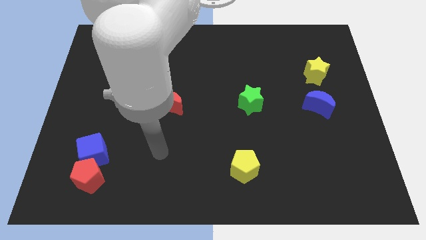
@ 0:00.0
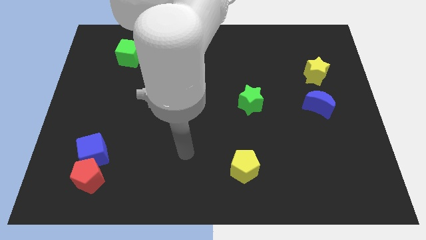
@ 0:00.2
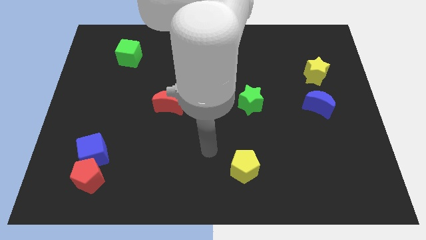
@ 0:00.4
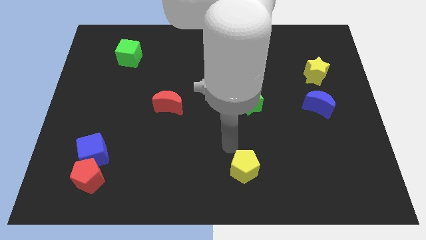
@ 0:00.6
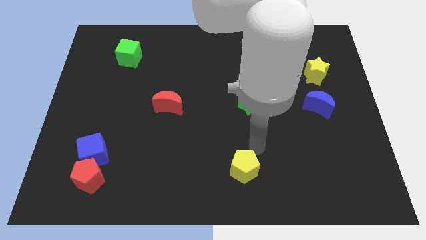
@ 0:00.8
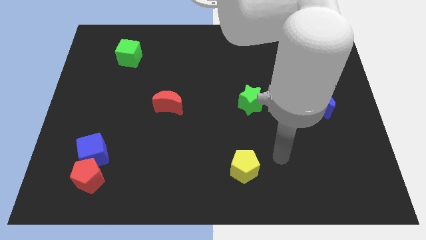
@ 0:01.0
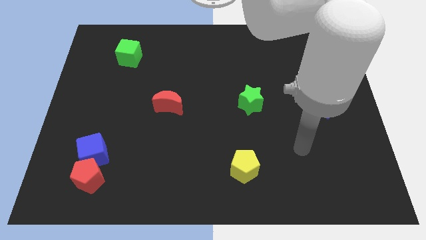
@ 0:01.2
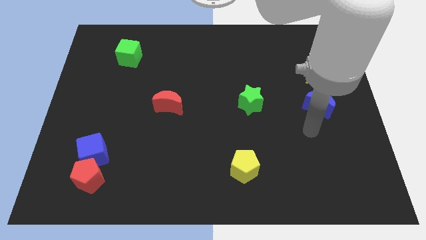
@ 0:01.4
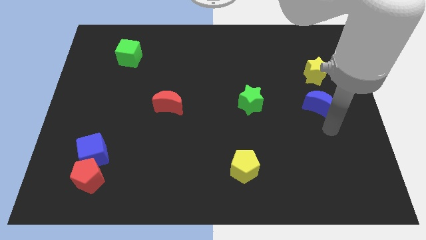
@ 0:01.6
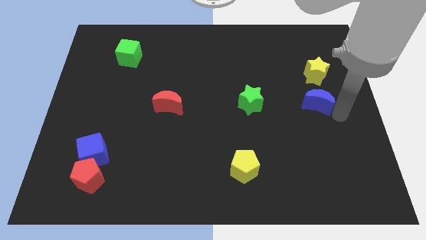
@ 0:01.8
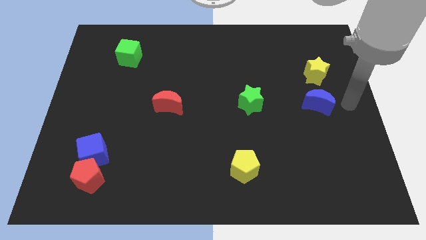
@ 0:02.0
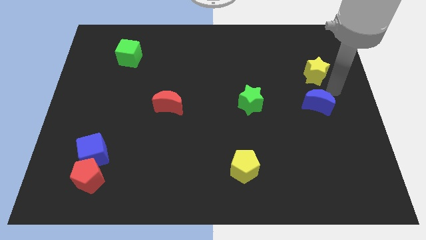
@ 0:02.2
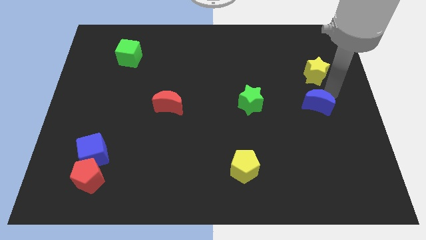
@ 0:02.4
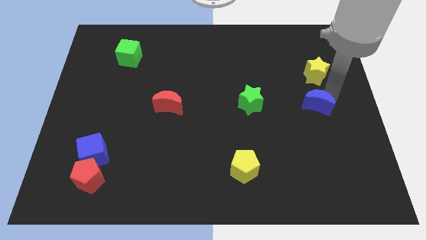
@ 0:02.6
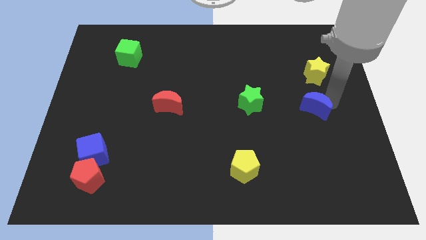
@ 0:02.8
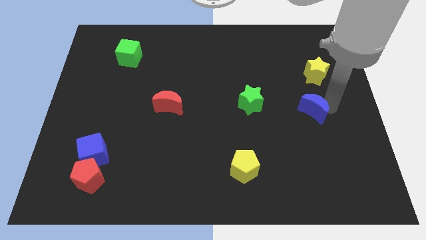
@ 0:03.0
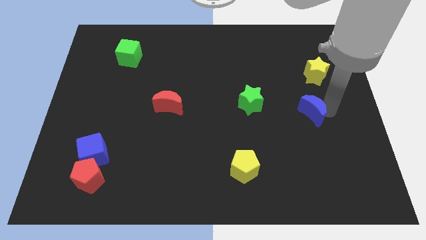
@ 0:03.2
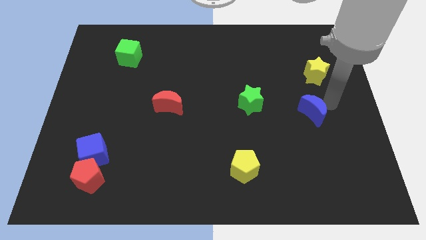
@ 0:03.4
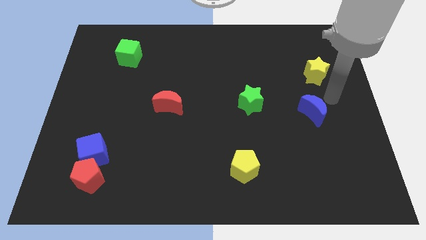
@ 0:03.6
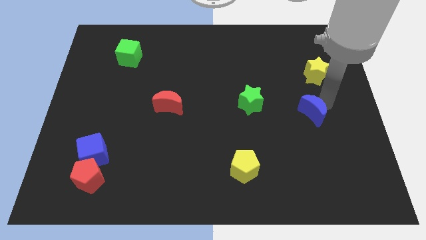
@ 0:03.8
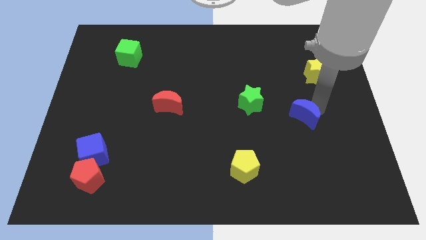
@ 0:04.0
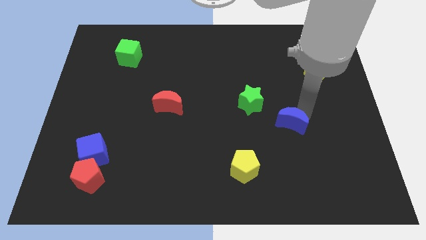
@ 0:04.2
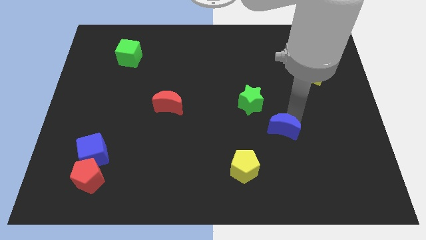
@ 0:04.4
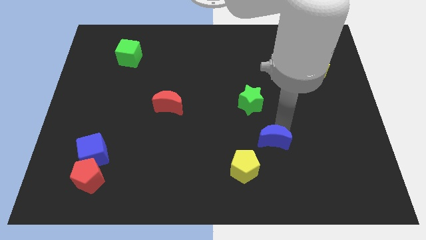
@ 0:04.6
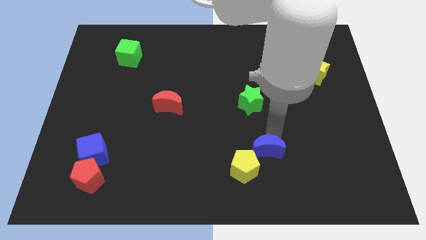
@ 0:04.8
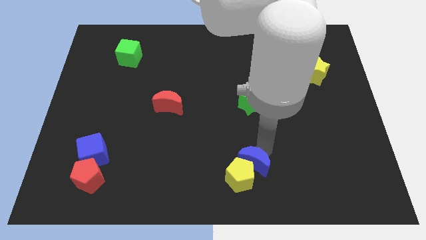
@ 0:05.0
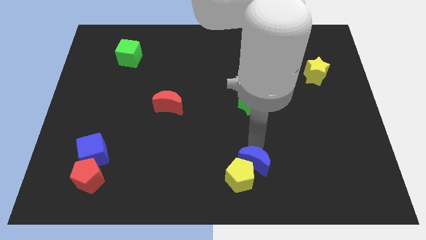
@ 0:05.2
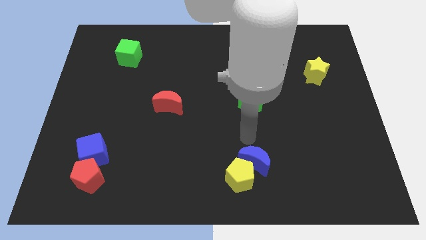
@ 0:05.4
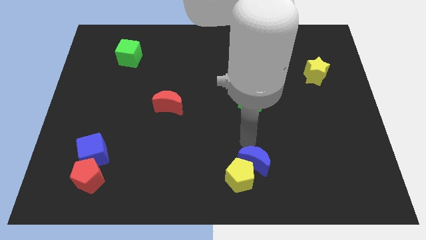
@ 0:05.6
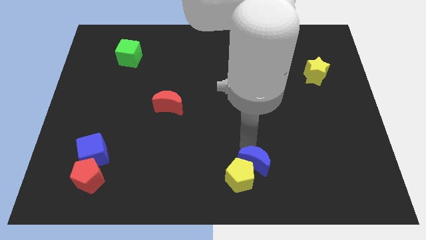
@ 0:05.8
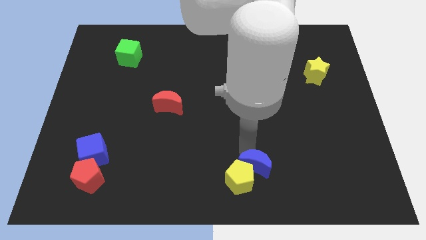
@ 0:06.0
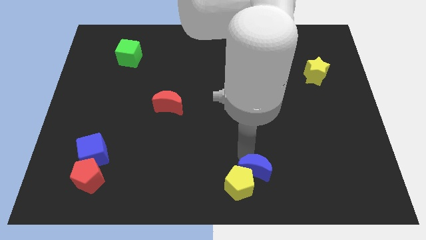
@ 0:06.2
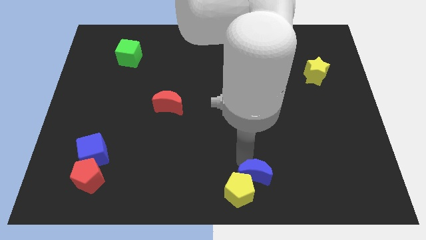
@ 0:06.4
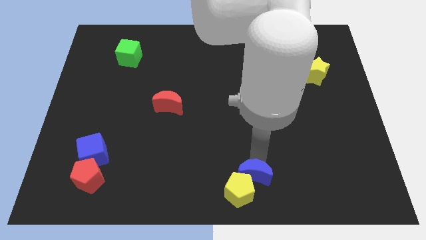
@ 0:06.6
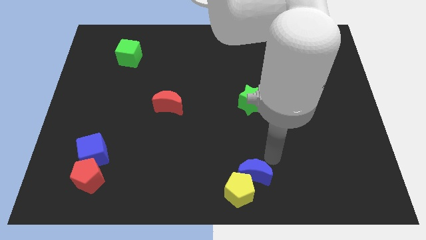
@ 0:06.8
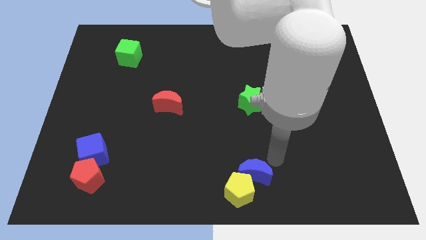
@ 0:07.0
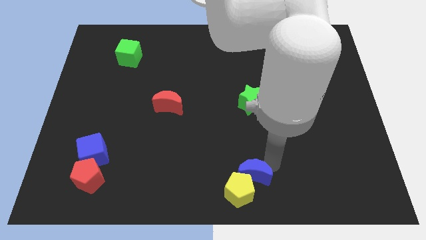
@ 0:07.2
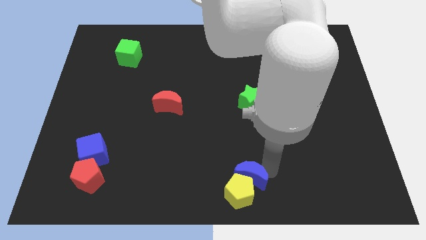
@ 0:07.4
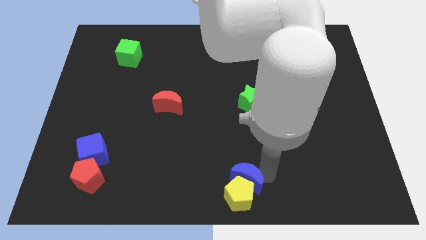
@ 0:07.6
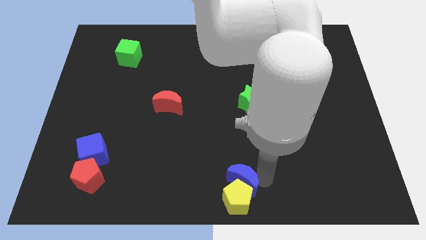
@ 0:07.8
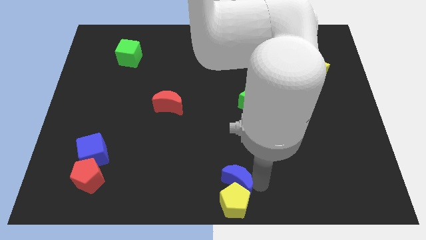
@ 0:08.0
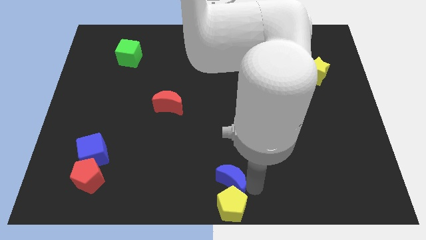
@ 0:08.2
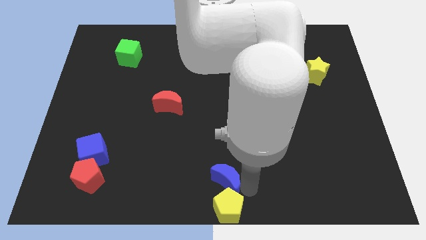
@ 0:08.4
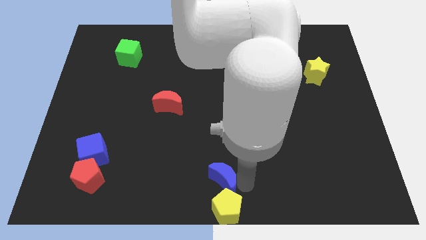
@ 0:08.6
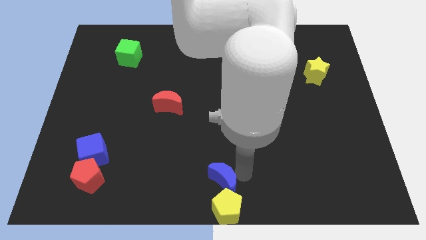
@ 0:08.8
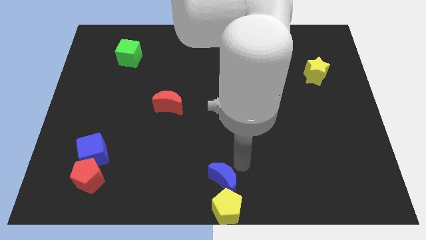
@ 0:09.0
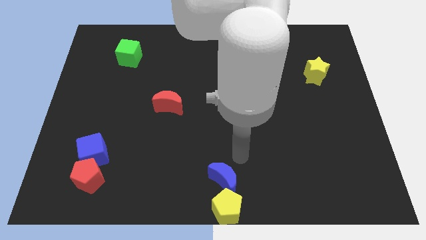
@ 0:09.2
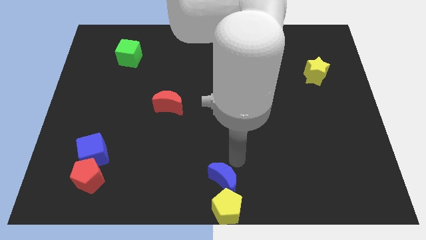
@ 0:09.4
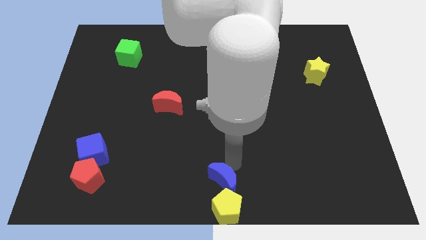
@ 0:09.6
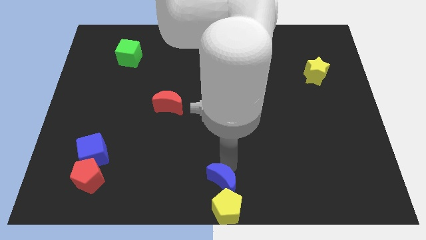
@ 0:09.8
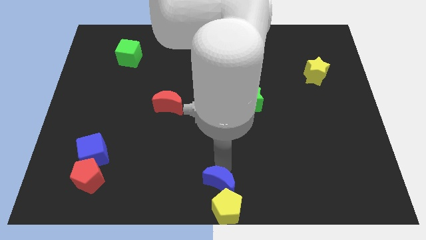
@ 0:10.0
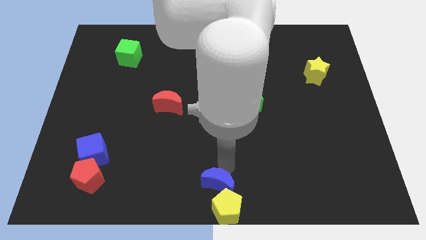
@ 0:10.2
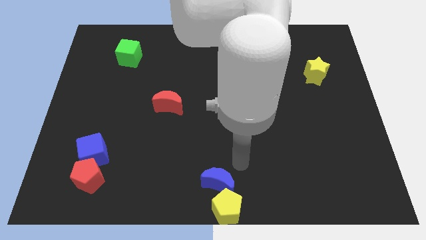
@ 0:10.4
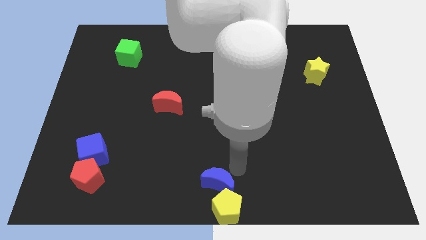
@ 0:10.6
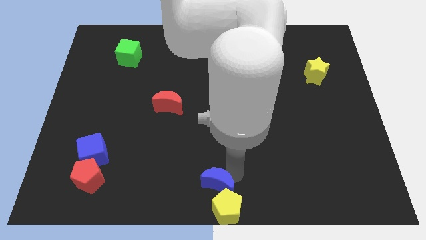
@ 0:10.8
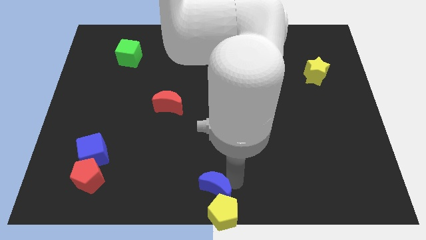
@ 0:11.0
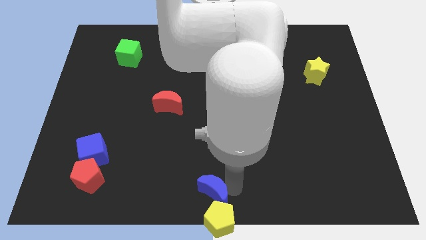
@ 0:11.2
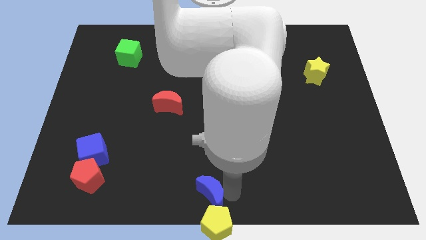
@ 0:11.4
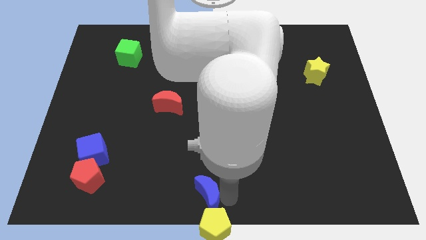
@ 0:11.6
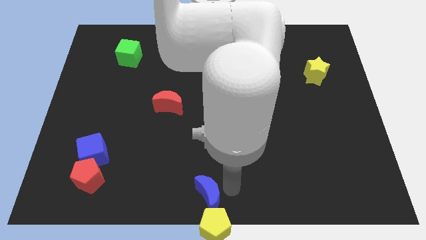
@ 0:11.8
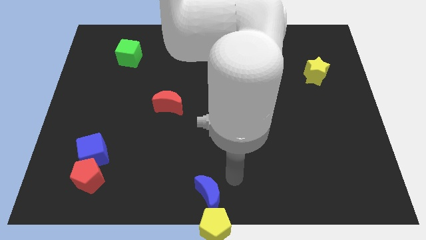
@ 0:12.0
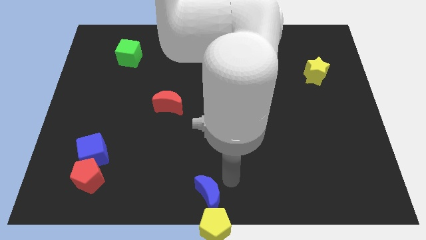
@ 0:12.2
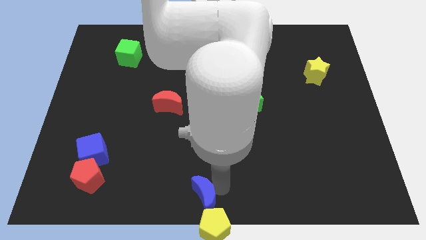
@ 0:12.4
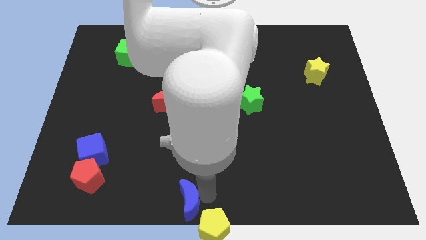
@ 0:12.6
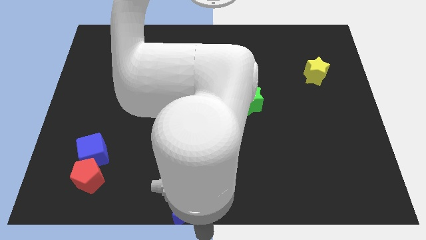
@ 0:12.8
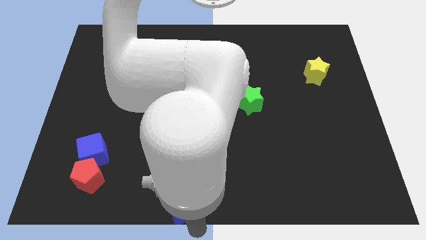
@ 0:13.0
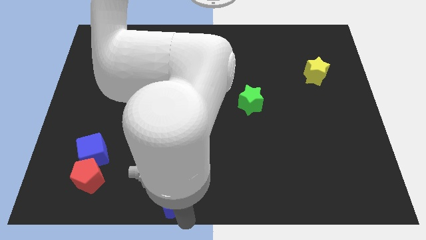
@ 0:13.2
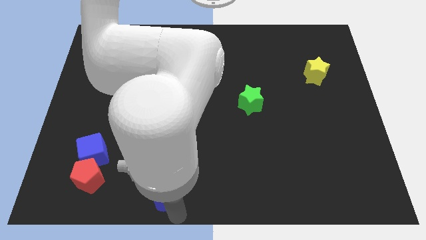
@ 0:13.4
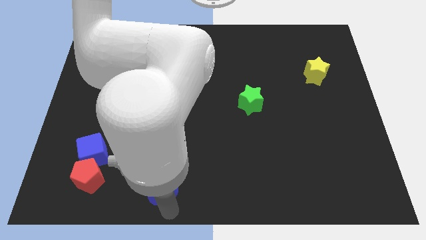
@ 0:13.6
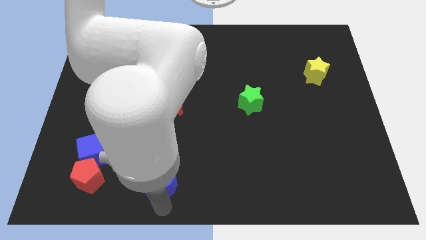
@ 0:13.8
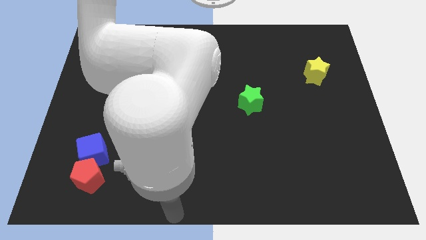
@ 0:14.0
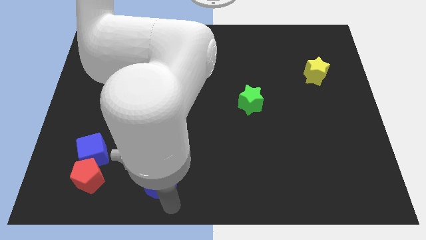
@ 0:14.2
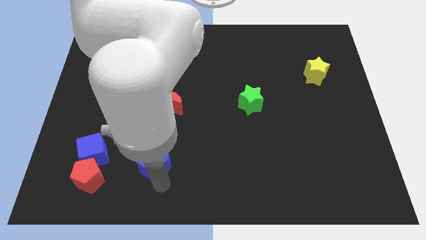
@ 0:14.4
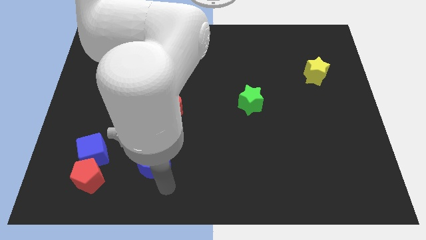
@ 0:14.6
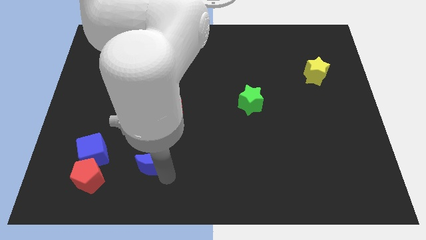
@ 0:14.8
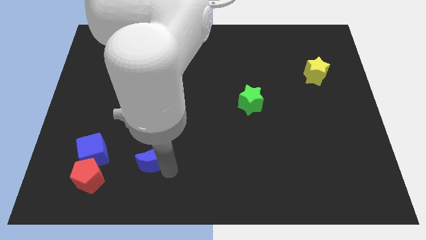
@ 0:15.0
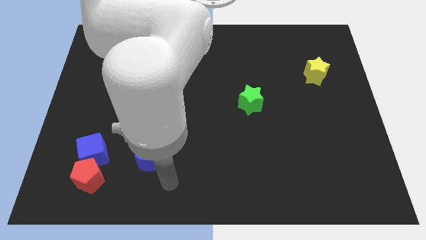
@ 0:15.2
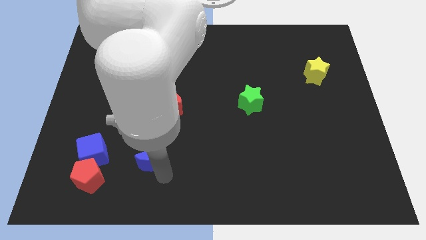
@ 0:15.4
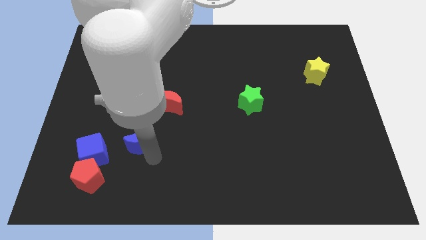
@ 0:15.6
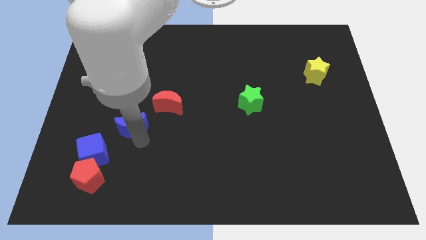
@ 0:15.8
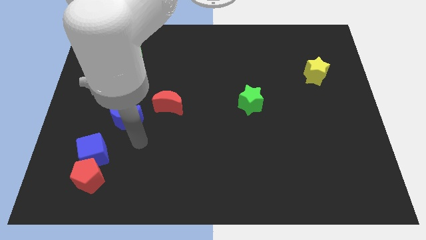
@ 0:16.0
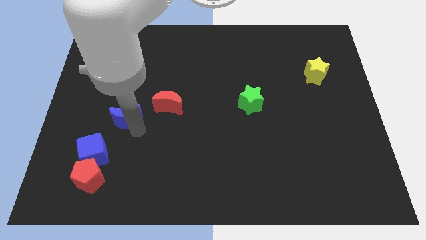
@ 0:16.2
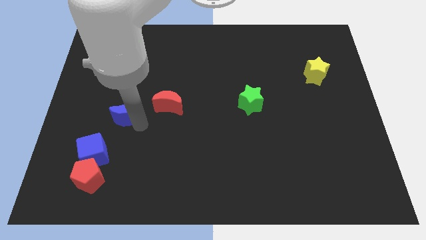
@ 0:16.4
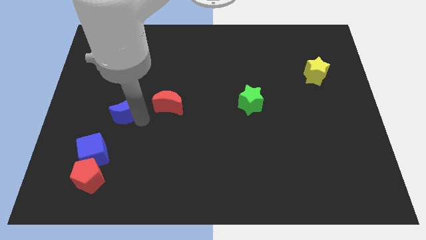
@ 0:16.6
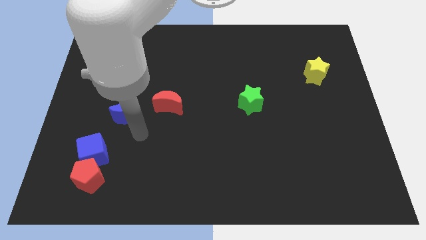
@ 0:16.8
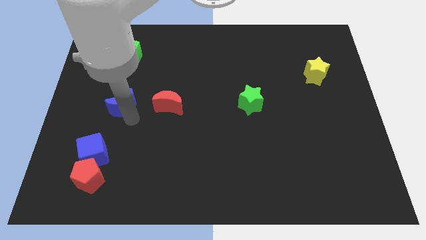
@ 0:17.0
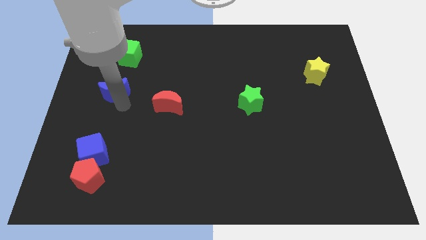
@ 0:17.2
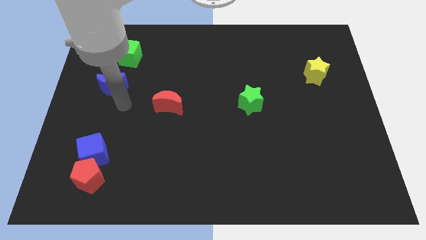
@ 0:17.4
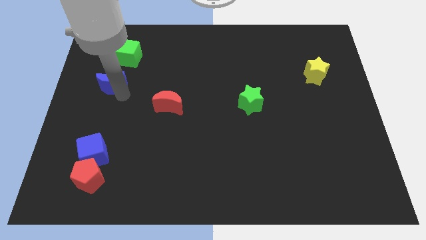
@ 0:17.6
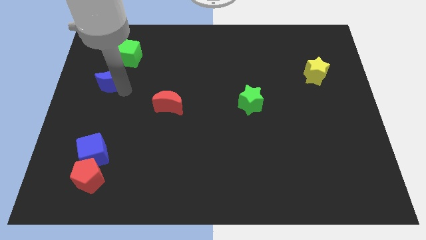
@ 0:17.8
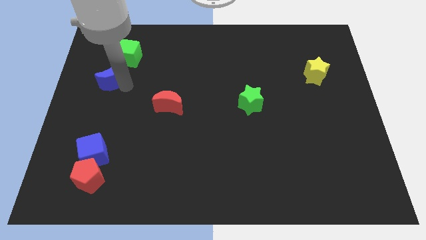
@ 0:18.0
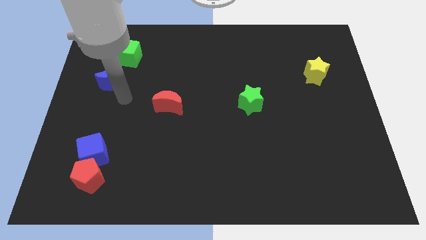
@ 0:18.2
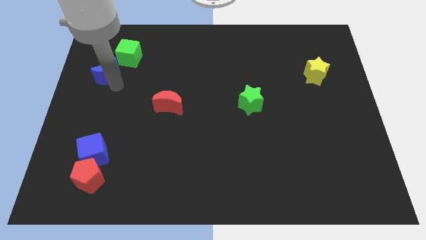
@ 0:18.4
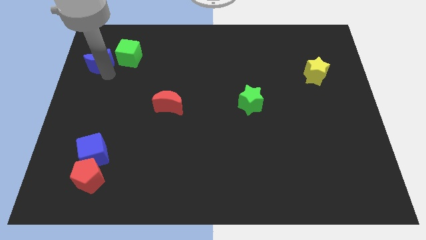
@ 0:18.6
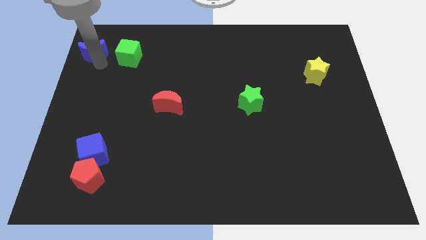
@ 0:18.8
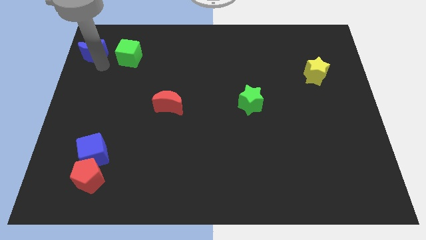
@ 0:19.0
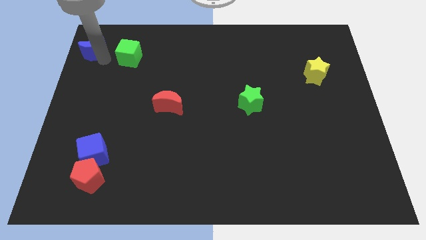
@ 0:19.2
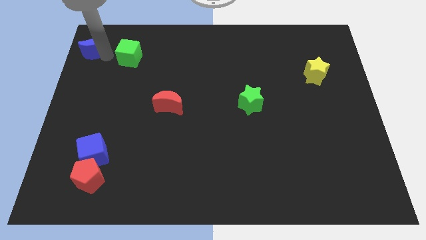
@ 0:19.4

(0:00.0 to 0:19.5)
push the blue moon to the top left
